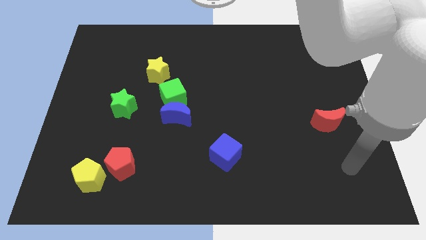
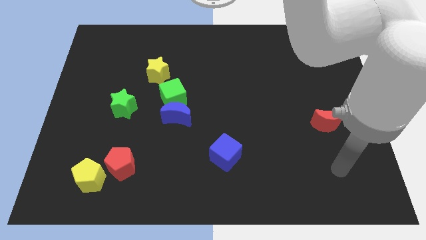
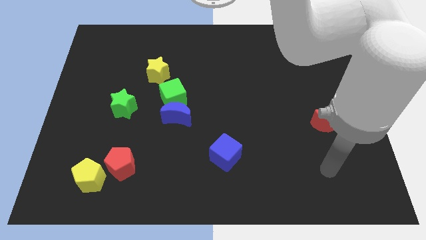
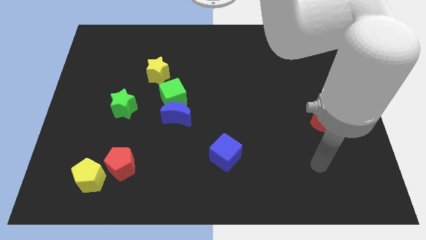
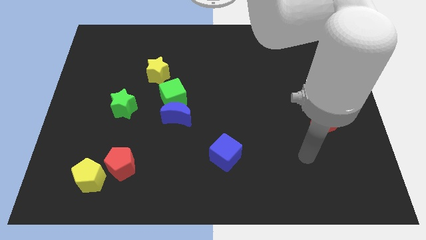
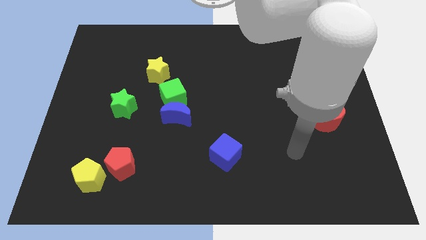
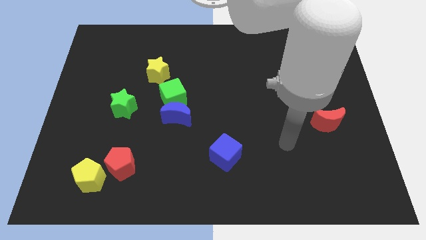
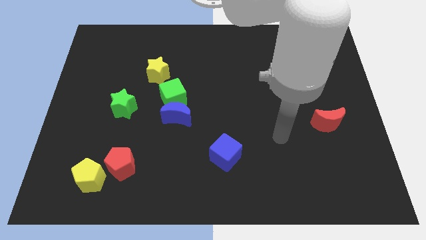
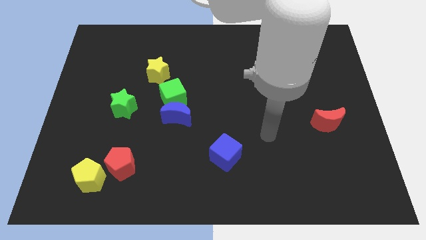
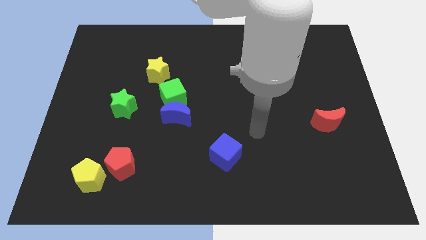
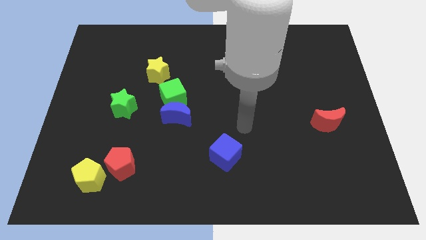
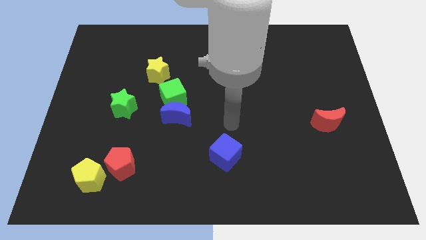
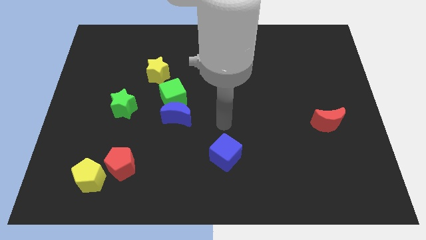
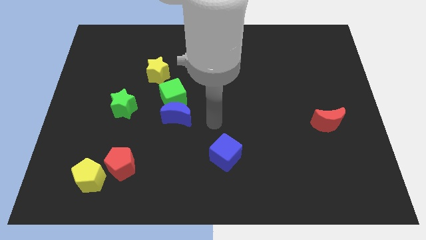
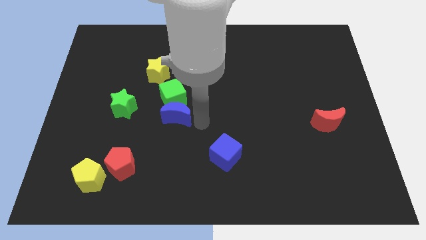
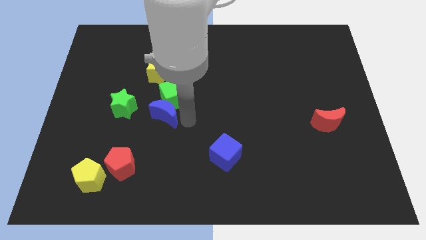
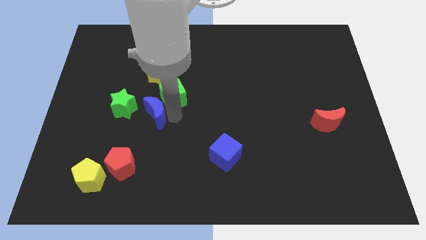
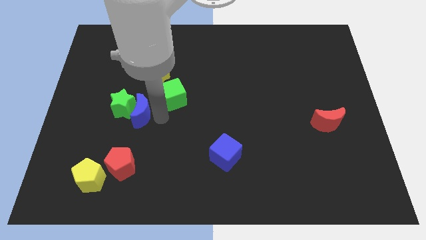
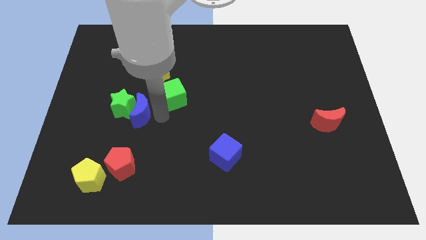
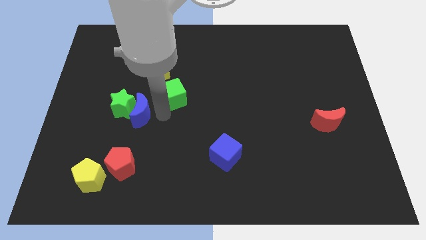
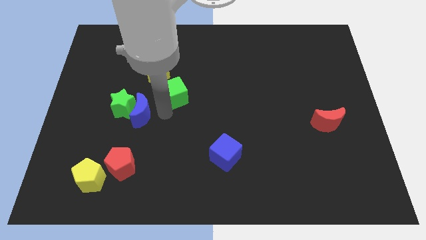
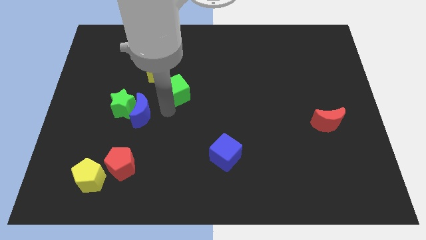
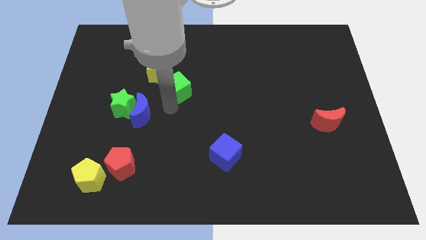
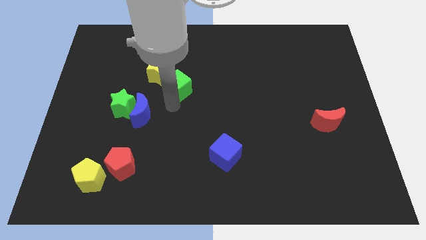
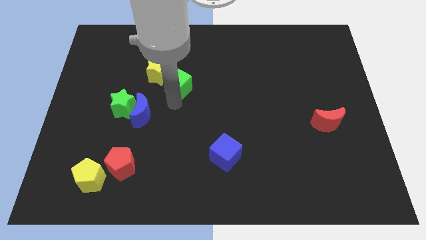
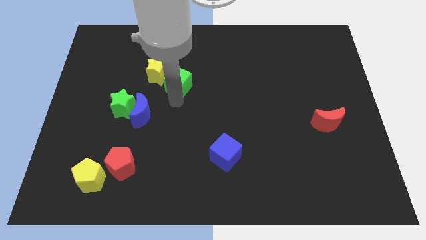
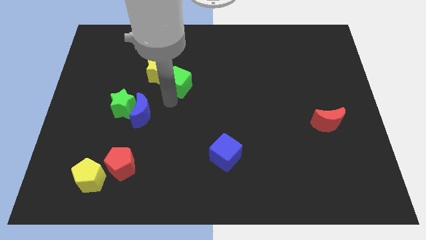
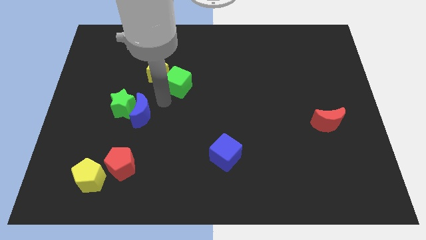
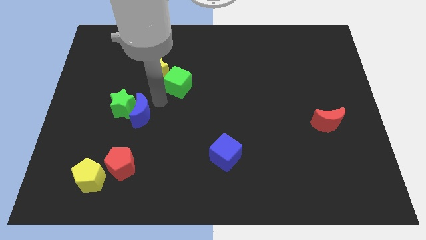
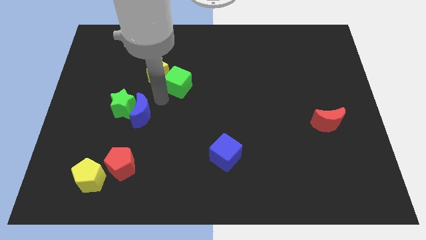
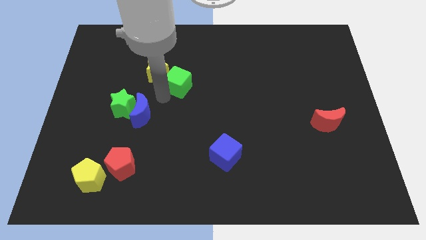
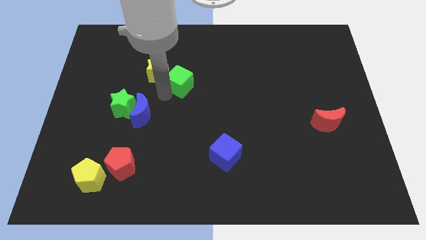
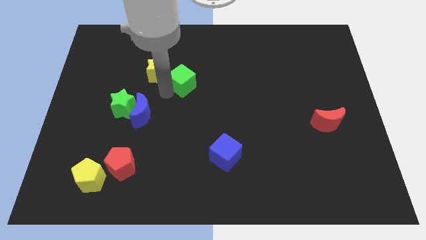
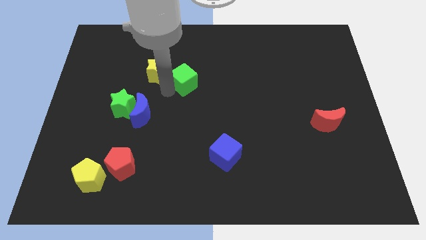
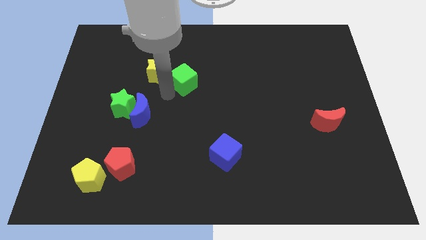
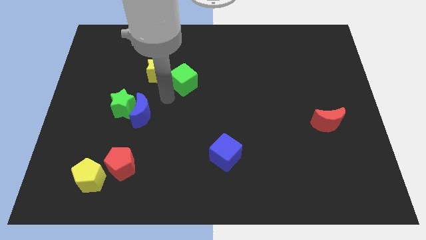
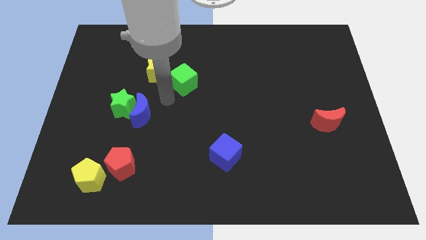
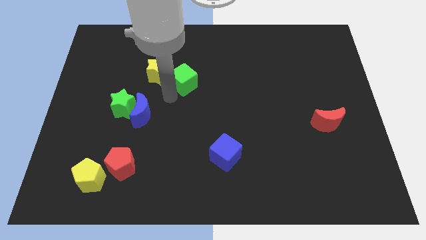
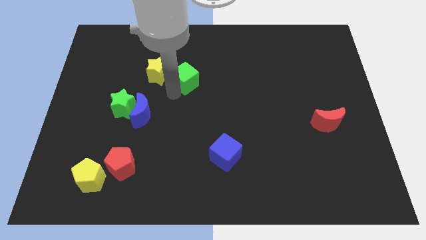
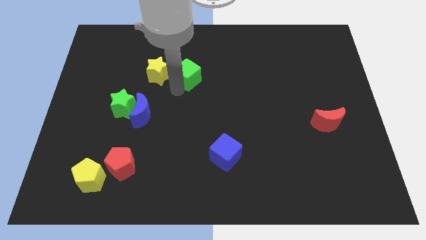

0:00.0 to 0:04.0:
move the green cube a little up and to the right diagonally

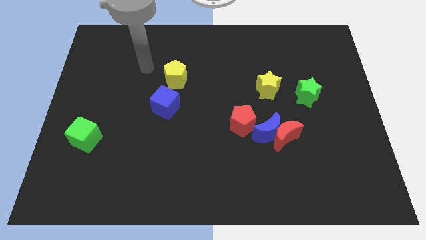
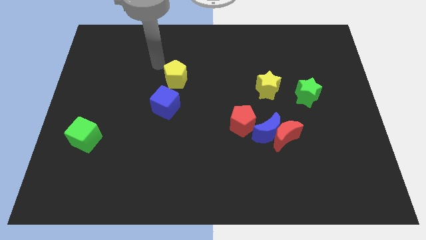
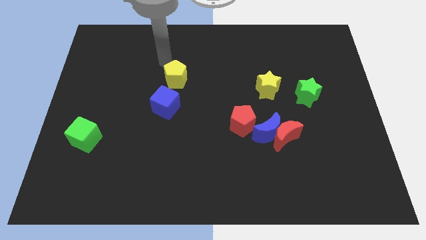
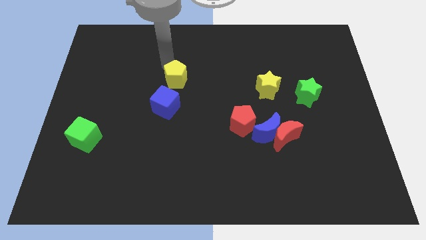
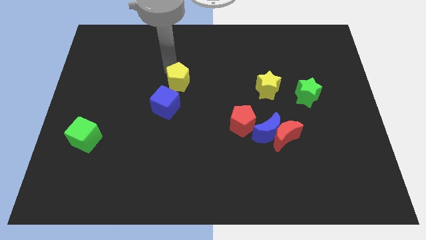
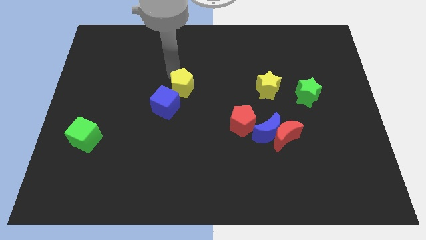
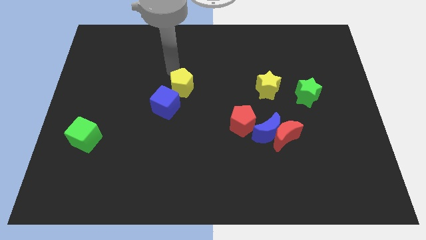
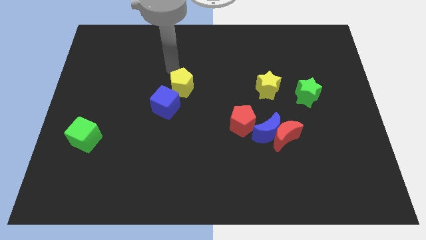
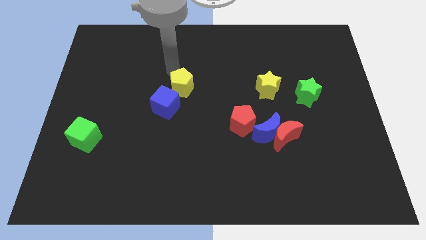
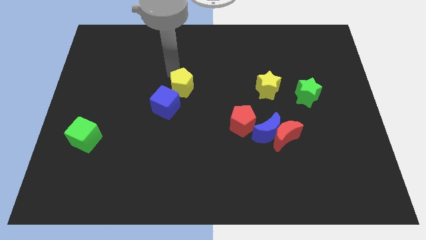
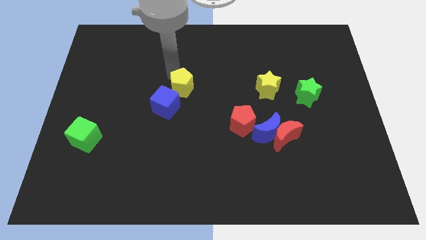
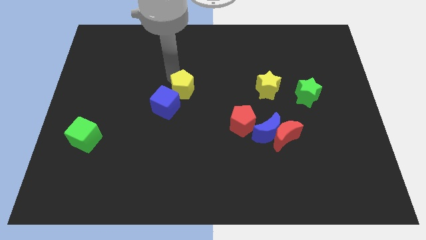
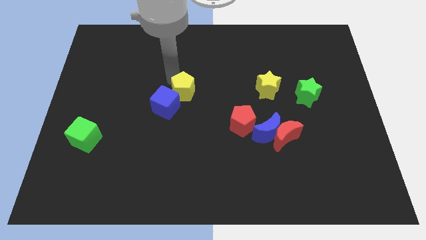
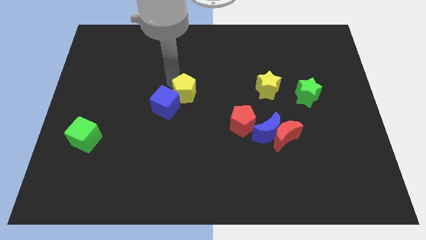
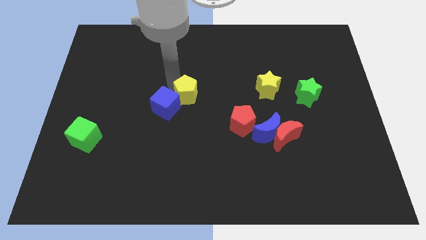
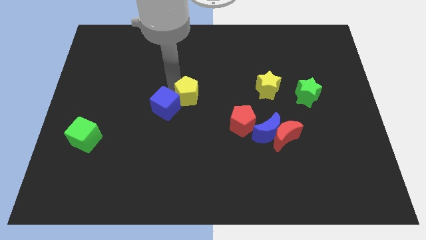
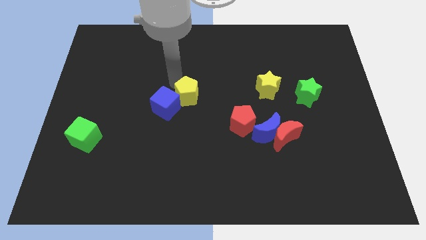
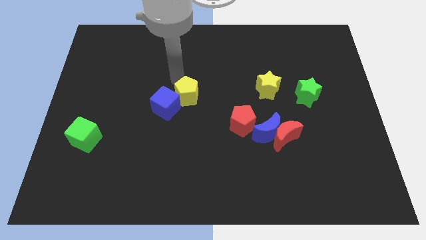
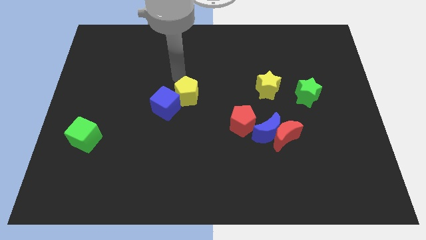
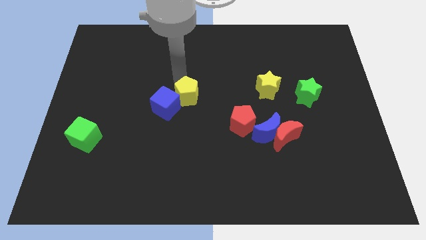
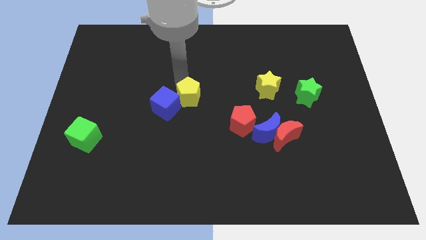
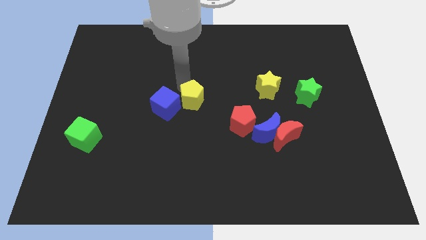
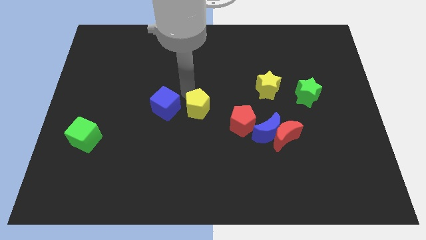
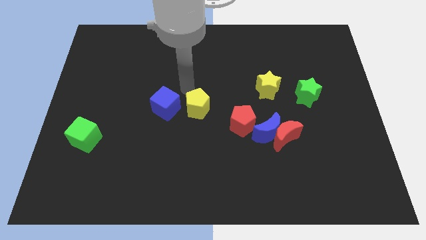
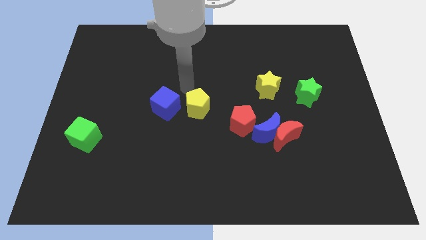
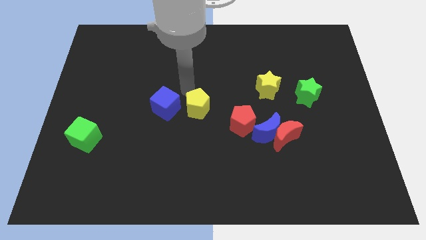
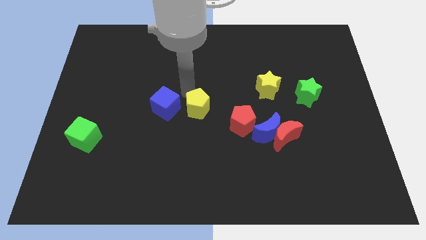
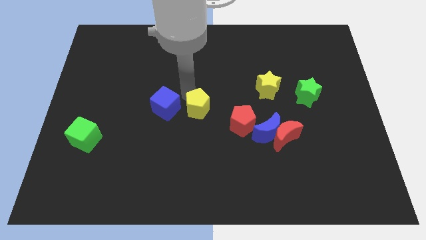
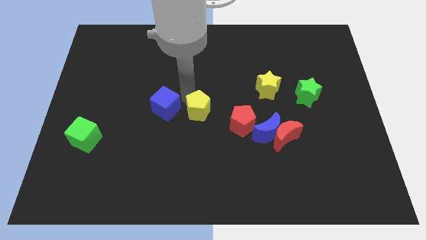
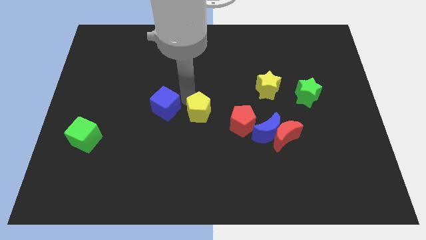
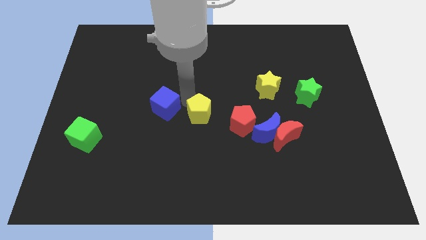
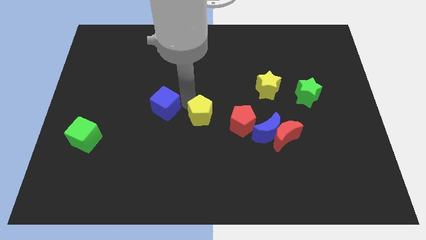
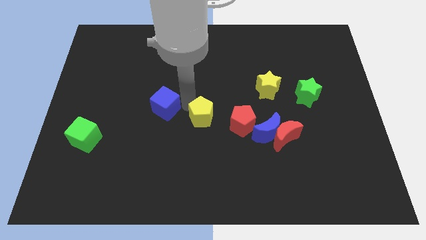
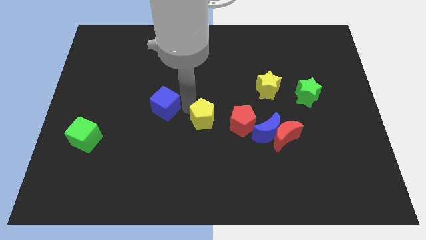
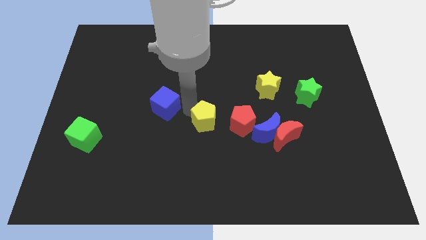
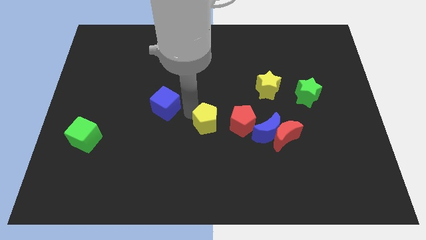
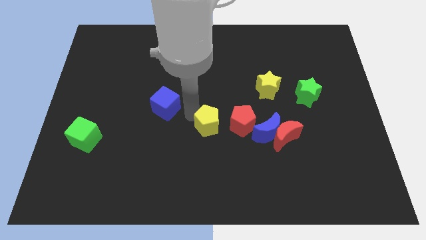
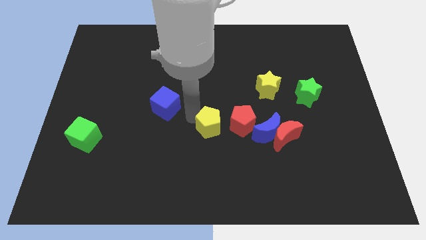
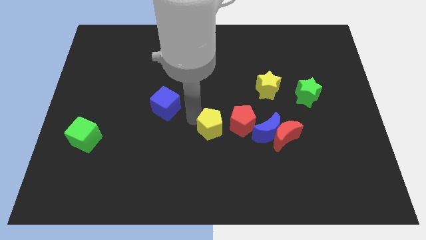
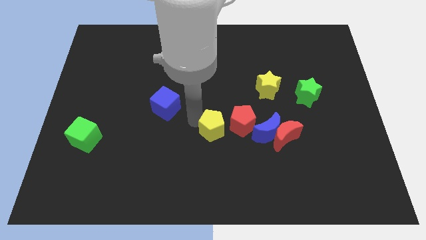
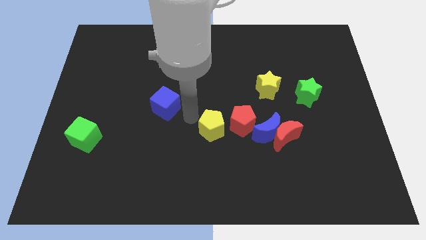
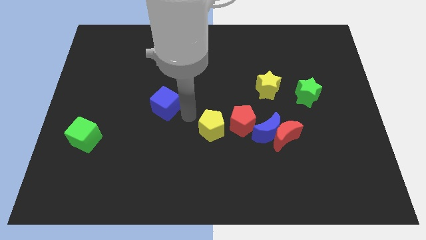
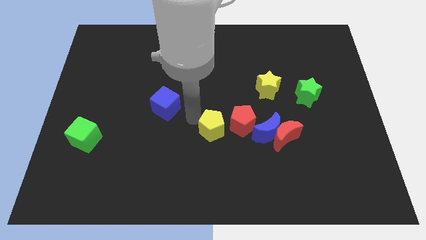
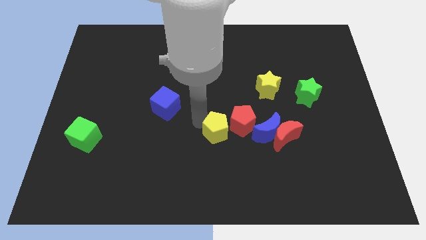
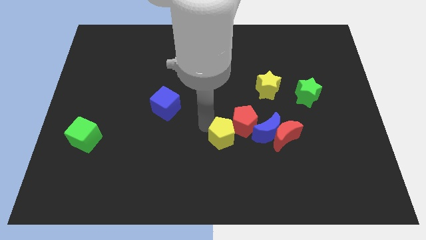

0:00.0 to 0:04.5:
push the yellow pentagon down and to the right
